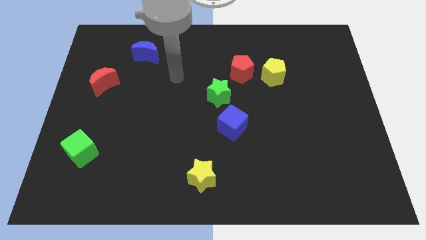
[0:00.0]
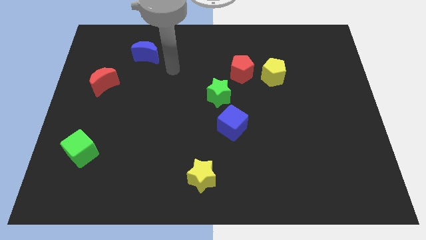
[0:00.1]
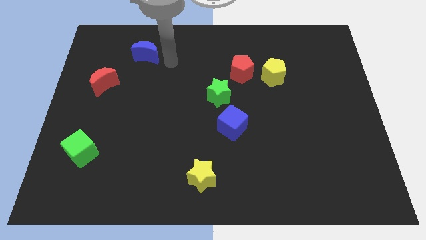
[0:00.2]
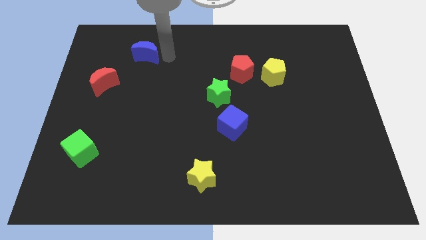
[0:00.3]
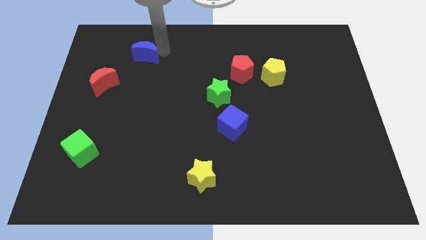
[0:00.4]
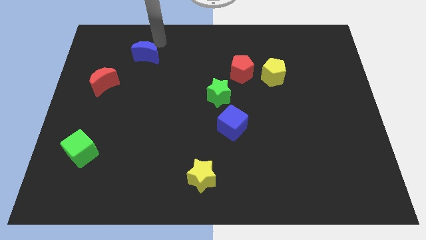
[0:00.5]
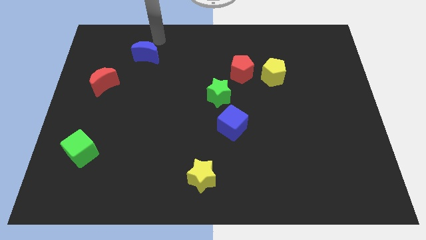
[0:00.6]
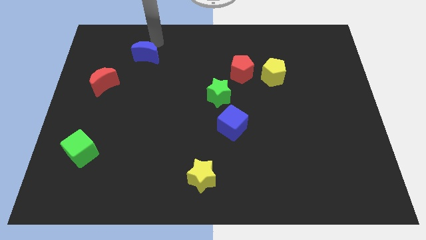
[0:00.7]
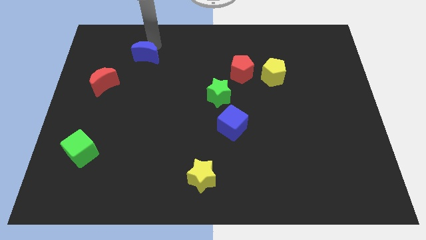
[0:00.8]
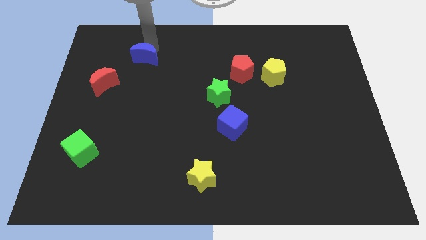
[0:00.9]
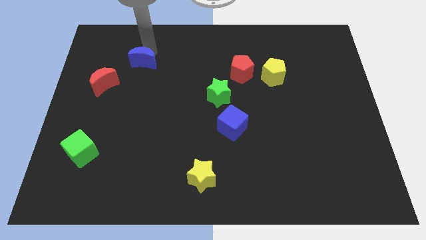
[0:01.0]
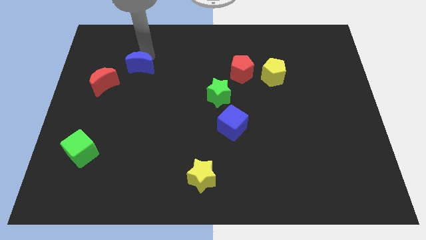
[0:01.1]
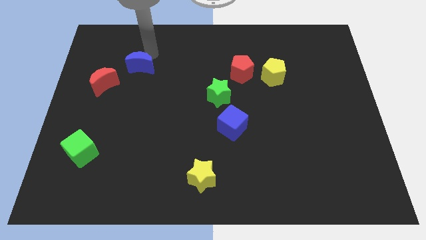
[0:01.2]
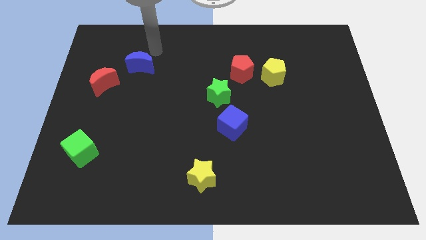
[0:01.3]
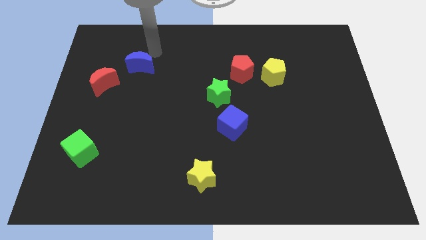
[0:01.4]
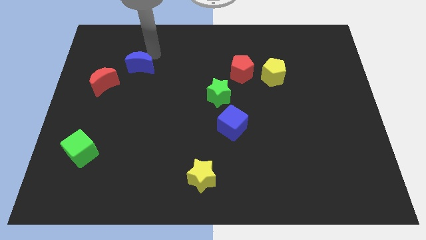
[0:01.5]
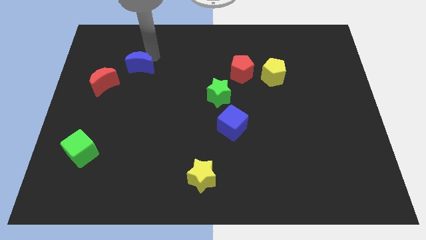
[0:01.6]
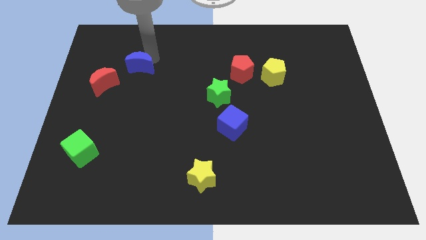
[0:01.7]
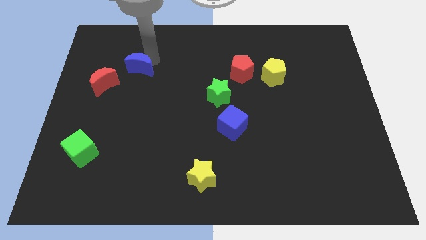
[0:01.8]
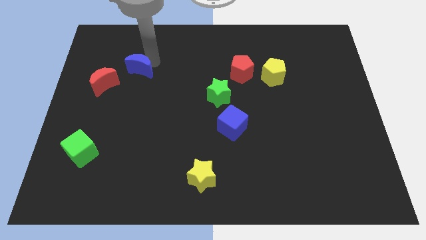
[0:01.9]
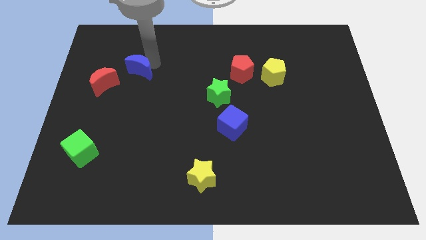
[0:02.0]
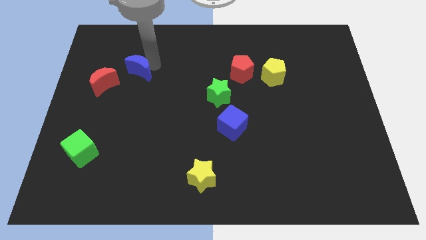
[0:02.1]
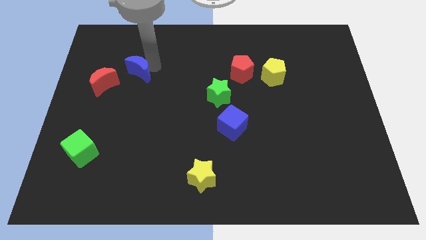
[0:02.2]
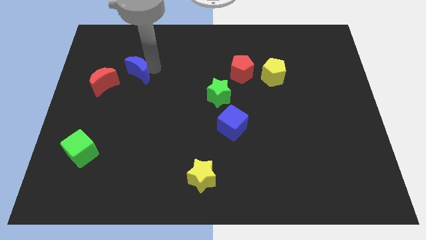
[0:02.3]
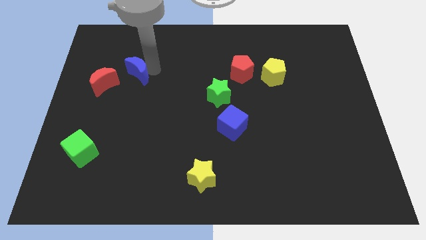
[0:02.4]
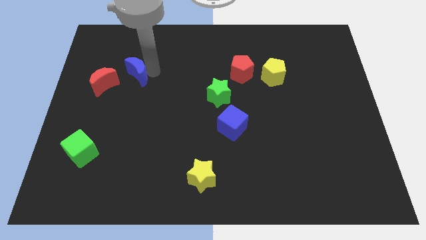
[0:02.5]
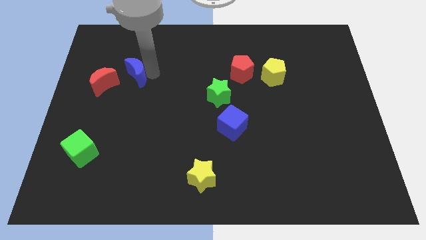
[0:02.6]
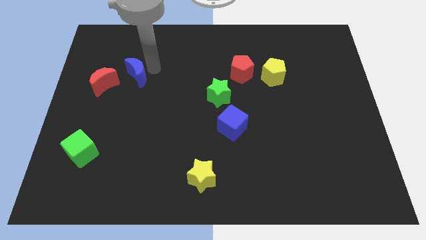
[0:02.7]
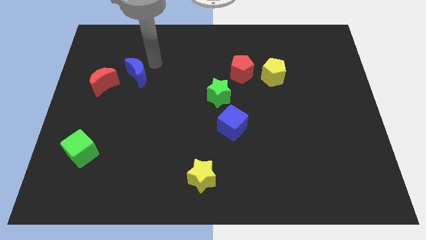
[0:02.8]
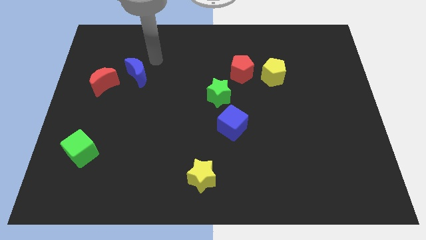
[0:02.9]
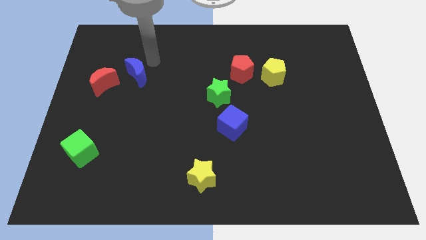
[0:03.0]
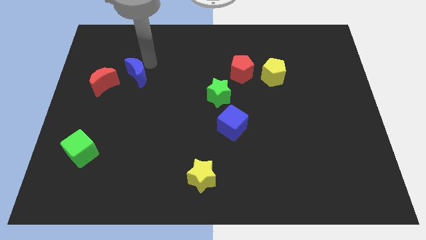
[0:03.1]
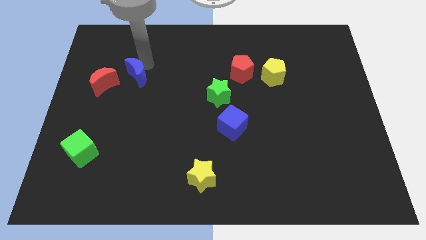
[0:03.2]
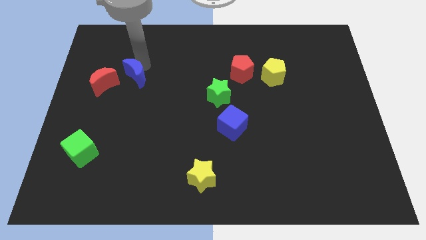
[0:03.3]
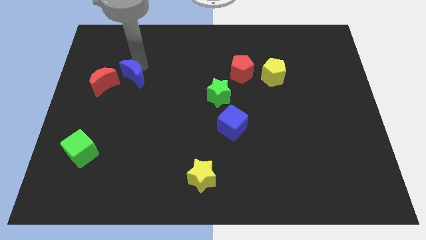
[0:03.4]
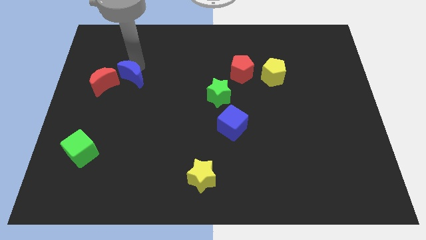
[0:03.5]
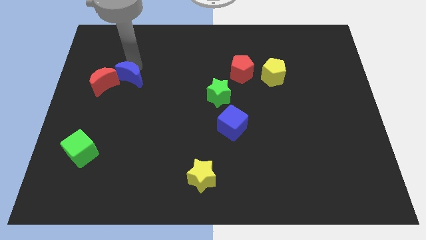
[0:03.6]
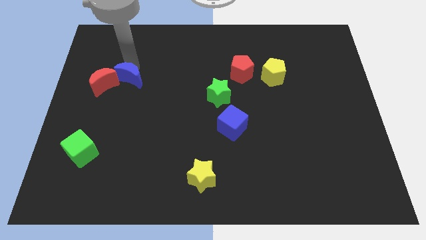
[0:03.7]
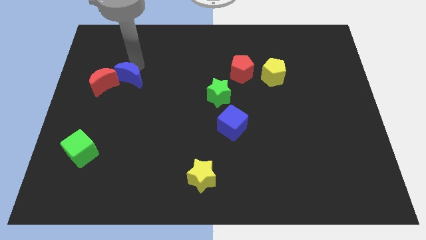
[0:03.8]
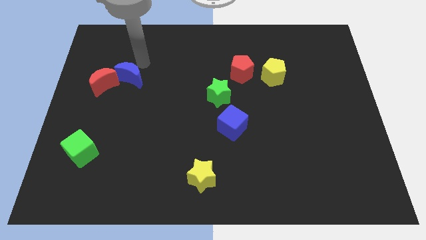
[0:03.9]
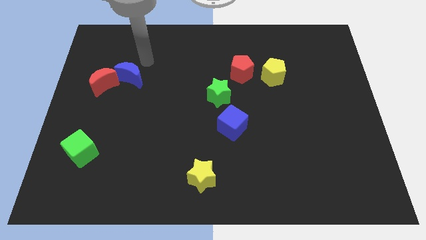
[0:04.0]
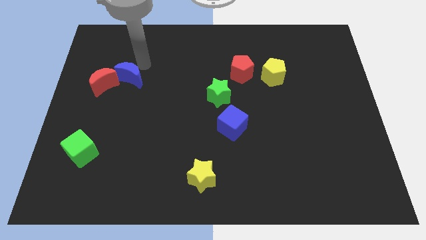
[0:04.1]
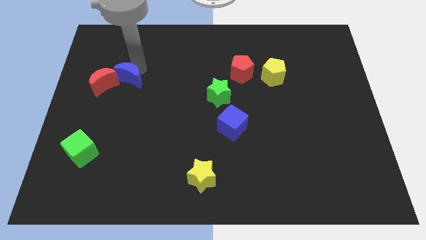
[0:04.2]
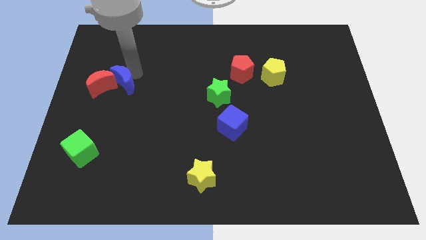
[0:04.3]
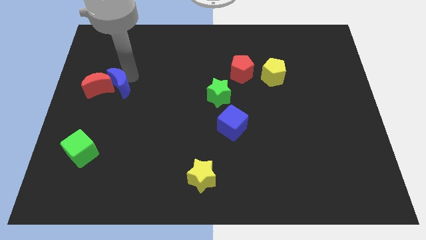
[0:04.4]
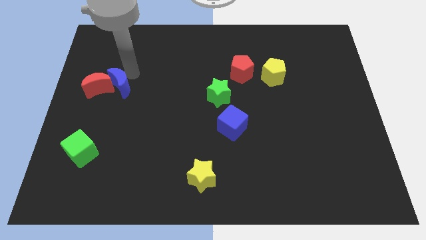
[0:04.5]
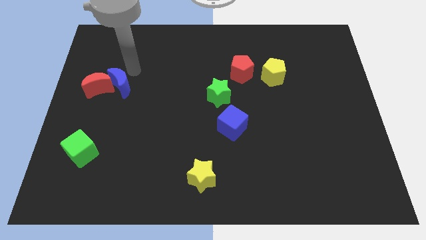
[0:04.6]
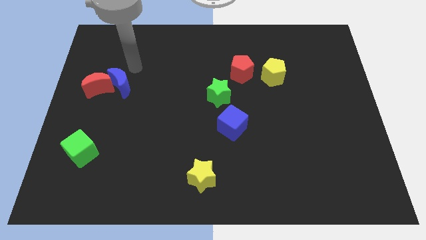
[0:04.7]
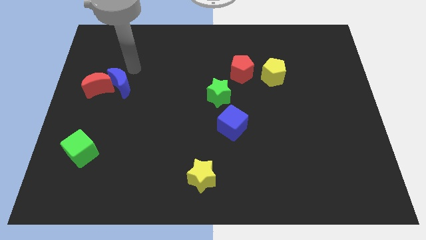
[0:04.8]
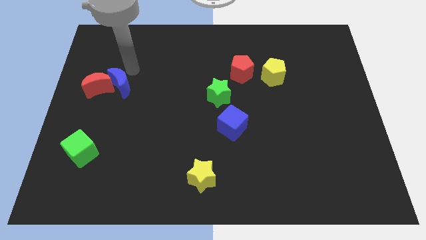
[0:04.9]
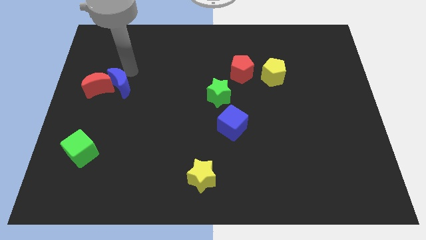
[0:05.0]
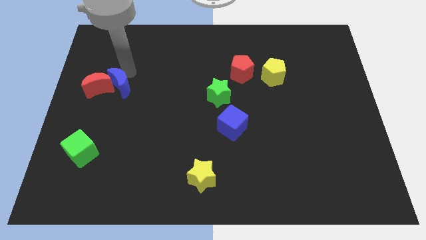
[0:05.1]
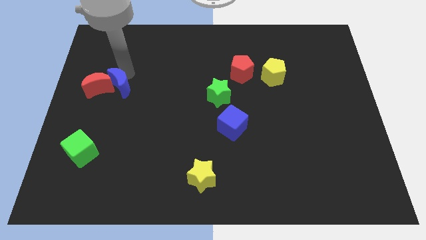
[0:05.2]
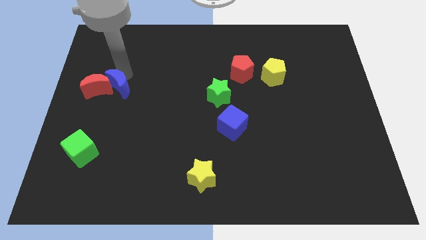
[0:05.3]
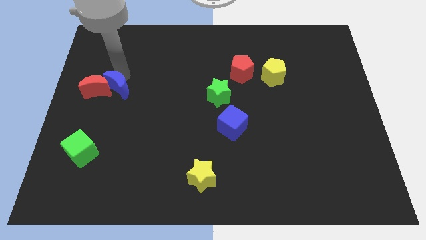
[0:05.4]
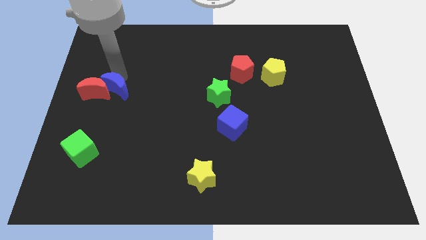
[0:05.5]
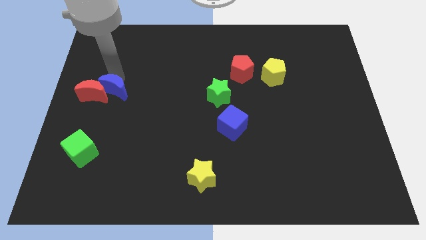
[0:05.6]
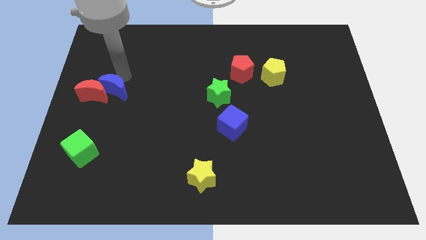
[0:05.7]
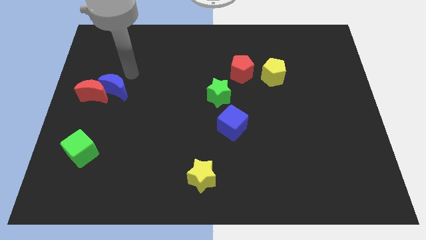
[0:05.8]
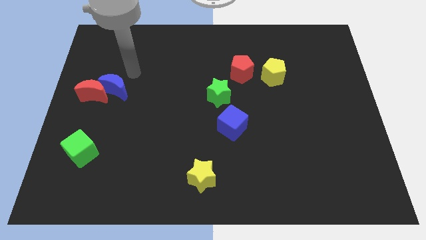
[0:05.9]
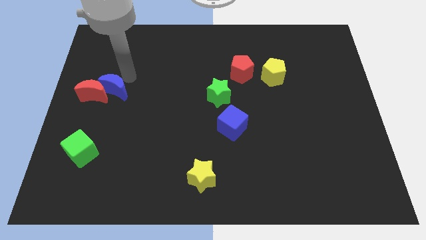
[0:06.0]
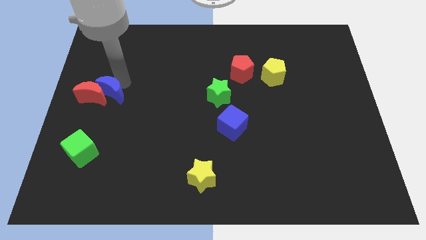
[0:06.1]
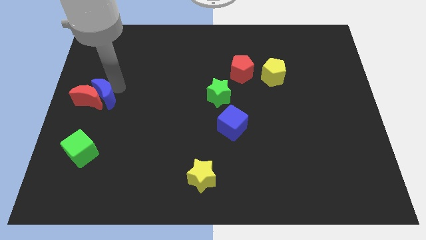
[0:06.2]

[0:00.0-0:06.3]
push the blue moon to the top of the green cube

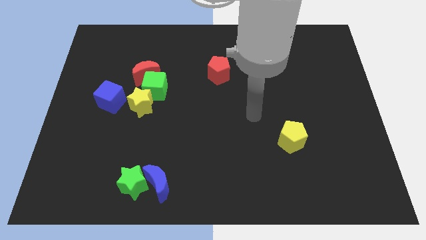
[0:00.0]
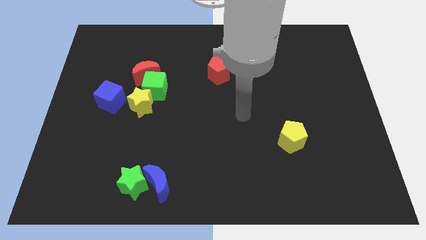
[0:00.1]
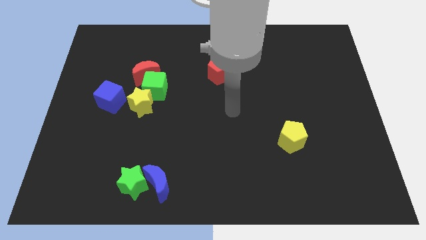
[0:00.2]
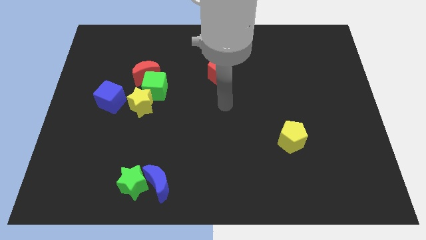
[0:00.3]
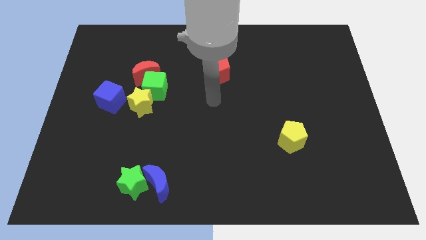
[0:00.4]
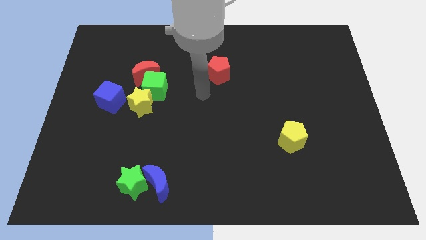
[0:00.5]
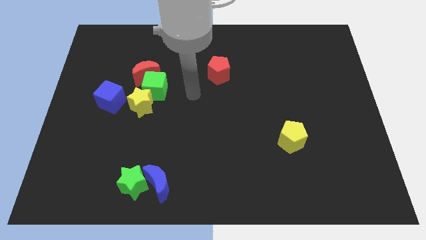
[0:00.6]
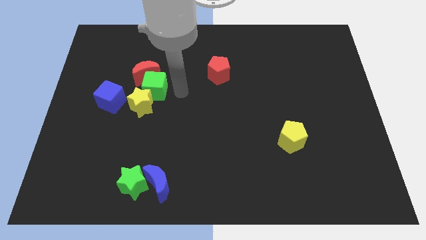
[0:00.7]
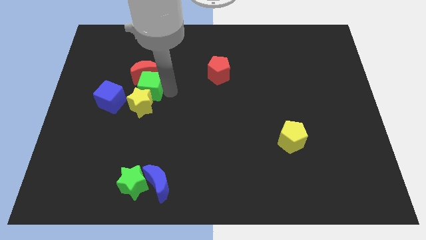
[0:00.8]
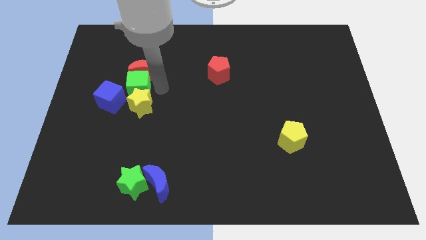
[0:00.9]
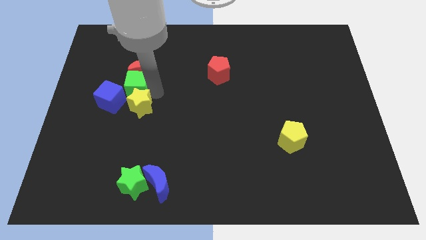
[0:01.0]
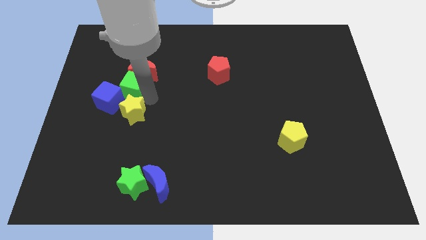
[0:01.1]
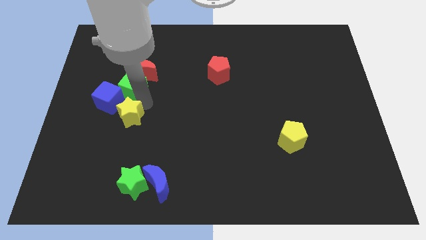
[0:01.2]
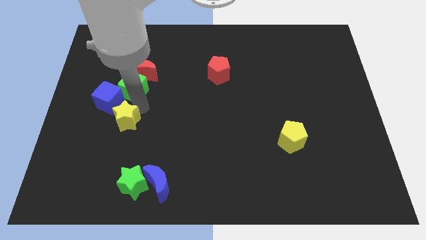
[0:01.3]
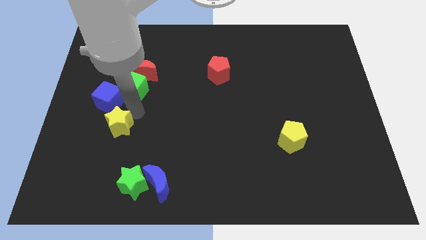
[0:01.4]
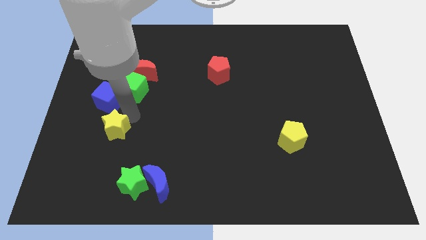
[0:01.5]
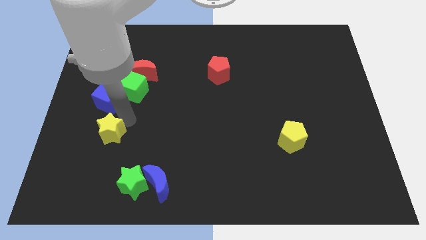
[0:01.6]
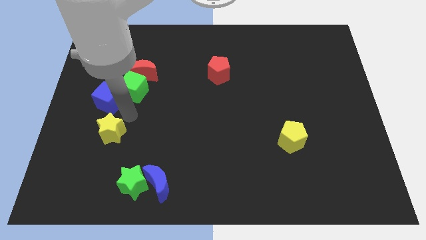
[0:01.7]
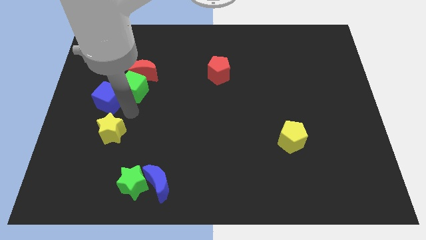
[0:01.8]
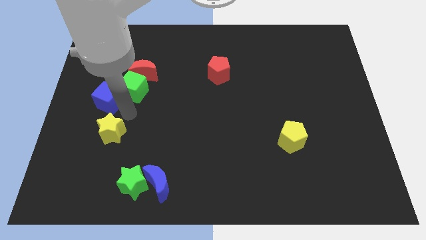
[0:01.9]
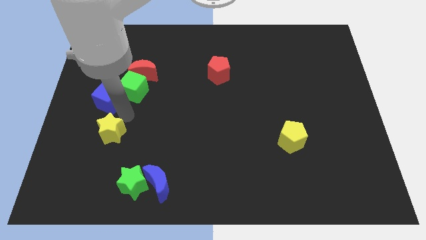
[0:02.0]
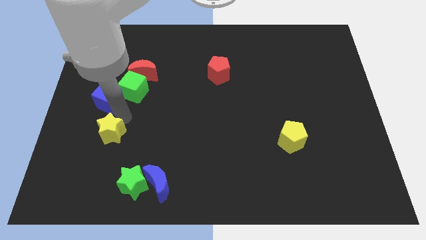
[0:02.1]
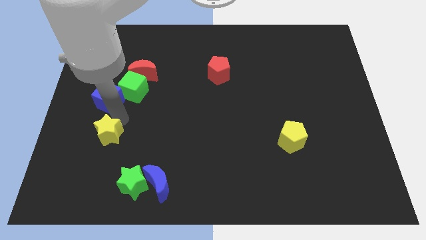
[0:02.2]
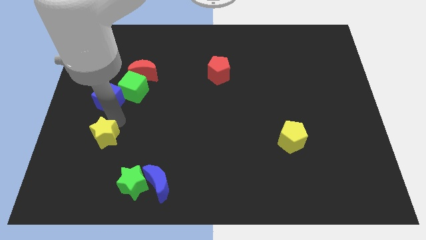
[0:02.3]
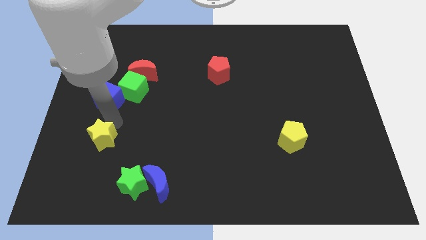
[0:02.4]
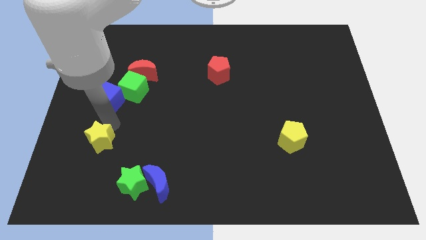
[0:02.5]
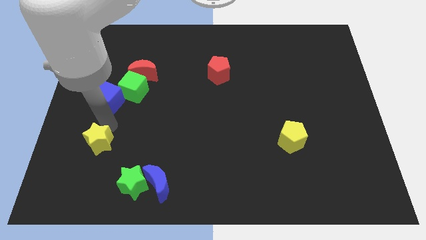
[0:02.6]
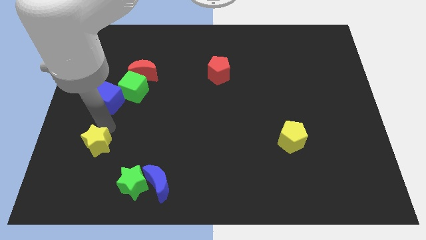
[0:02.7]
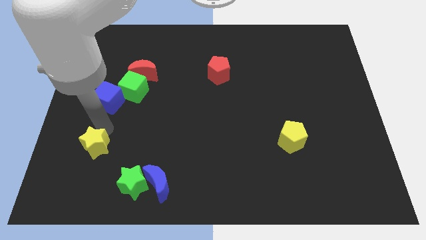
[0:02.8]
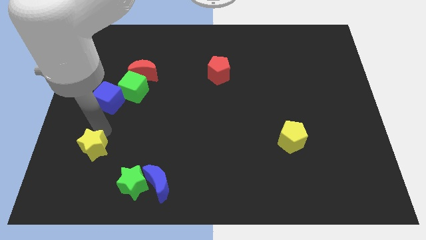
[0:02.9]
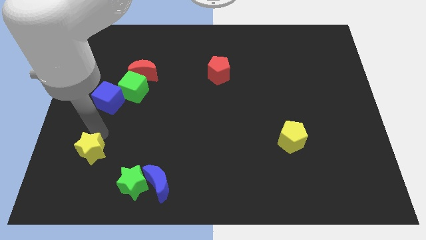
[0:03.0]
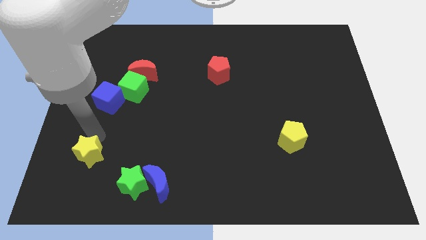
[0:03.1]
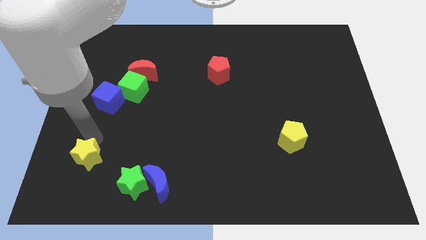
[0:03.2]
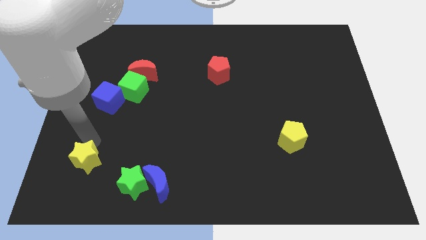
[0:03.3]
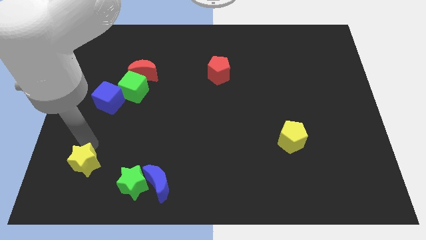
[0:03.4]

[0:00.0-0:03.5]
push the yellow star to the left of the green star
